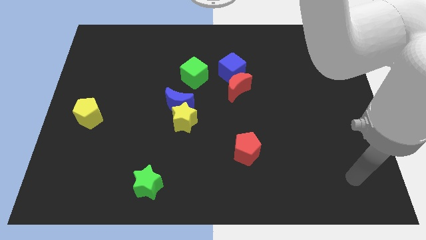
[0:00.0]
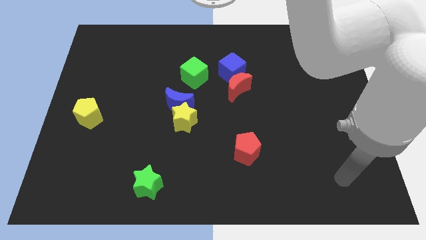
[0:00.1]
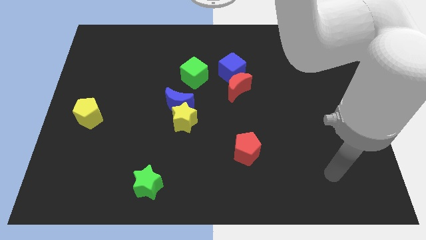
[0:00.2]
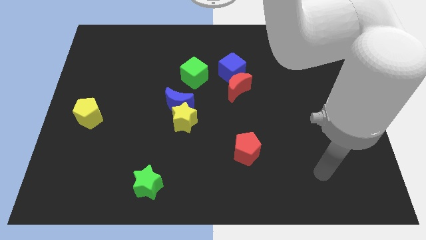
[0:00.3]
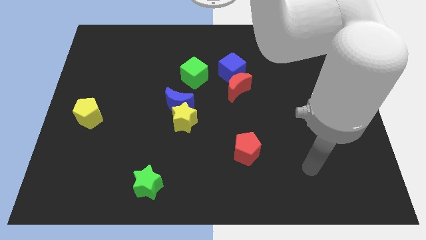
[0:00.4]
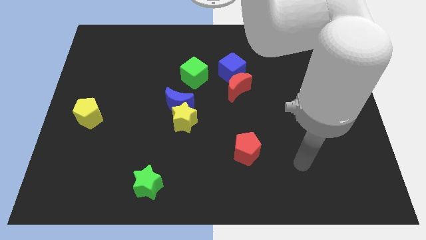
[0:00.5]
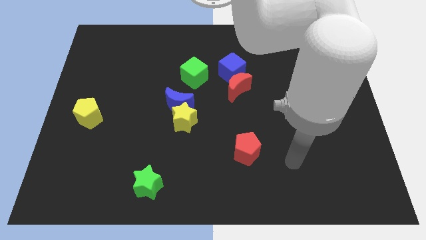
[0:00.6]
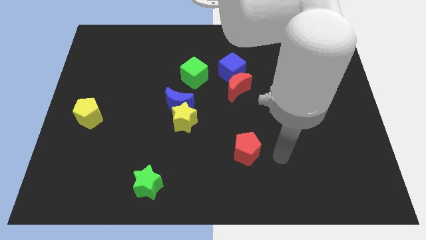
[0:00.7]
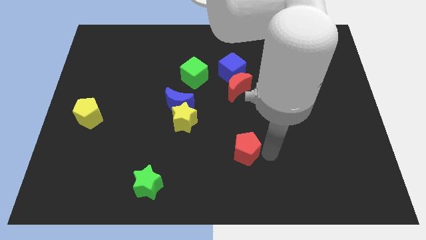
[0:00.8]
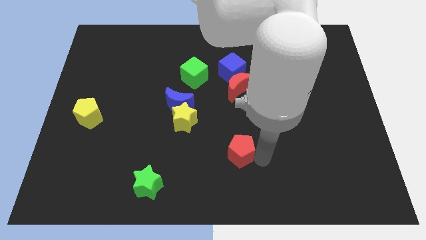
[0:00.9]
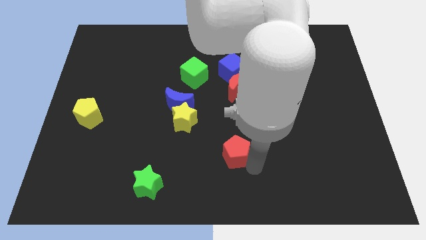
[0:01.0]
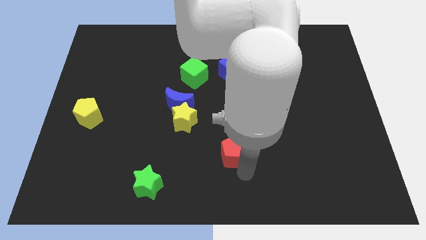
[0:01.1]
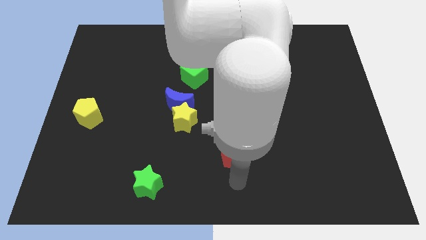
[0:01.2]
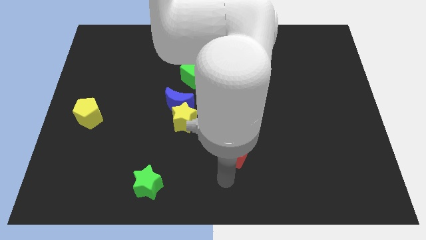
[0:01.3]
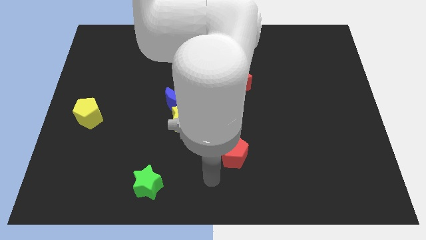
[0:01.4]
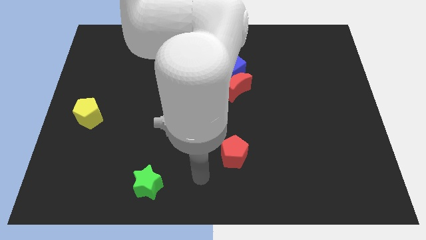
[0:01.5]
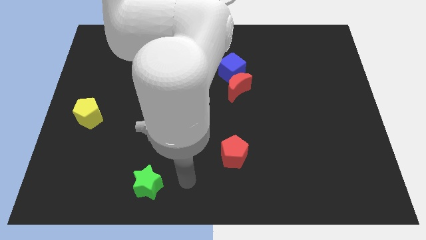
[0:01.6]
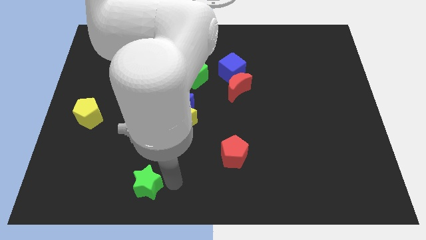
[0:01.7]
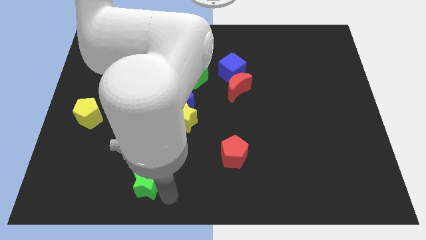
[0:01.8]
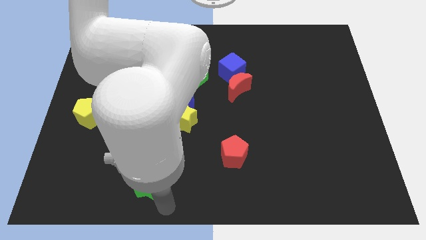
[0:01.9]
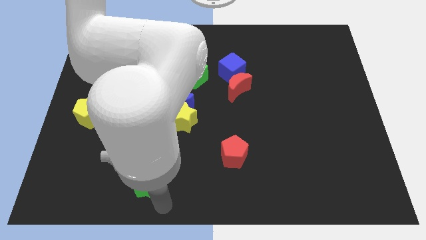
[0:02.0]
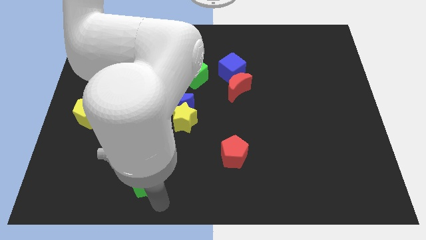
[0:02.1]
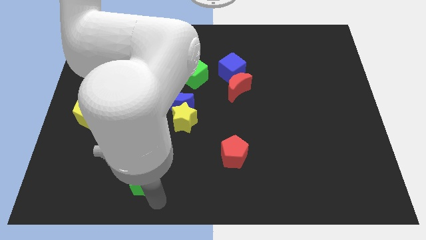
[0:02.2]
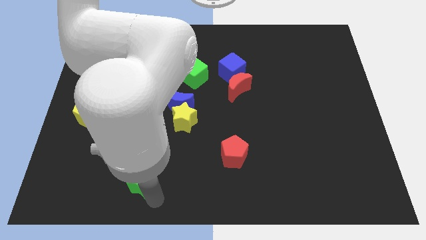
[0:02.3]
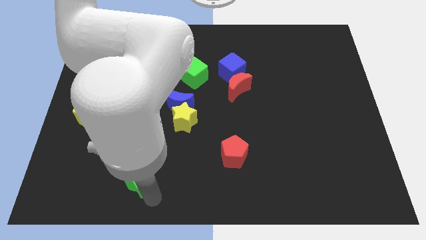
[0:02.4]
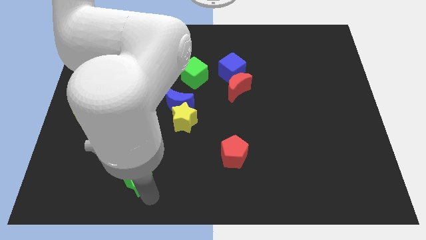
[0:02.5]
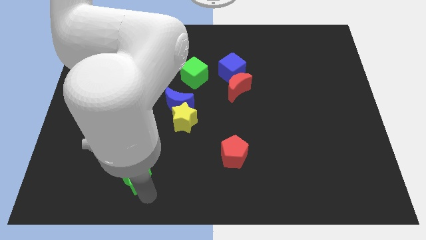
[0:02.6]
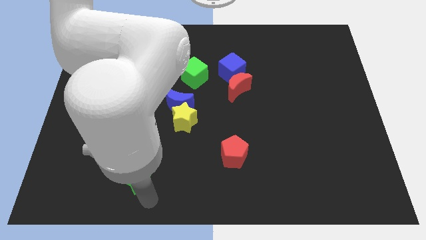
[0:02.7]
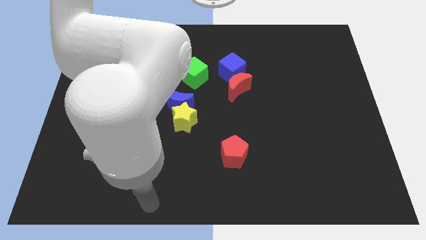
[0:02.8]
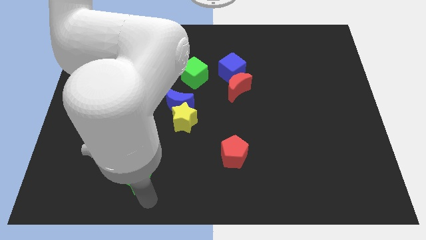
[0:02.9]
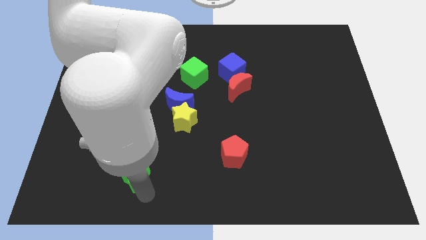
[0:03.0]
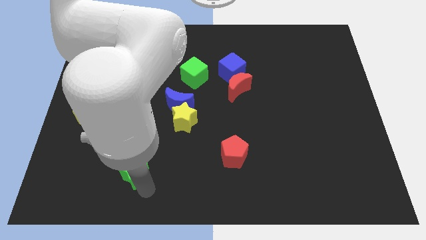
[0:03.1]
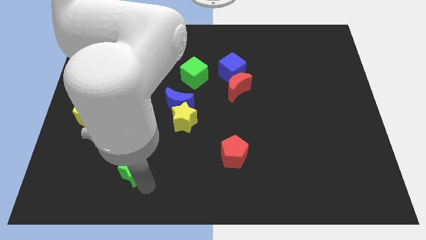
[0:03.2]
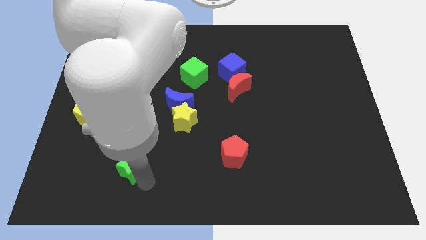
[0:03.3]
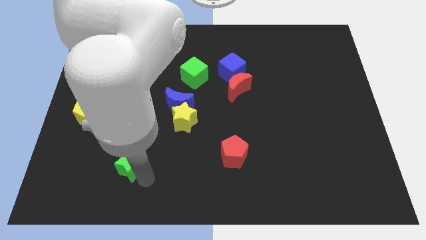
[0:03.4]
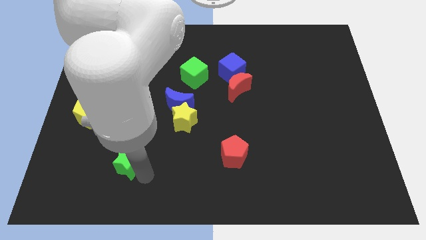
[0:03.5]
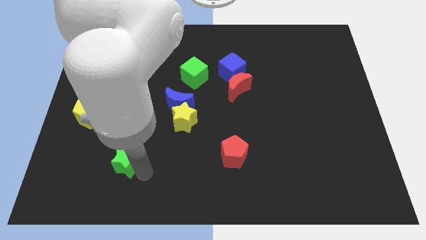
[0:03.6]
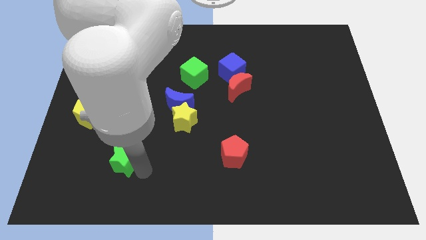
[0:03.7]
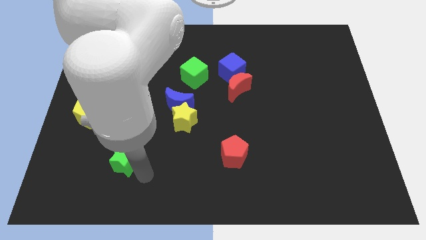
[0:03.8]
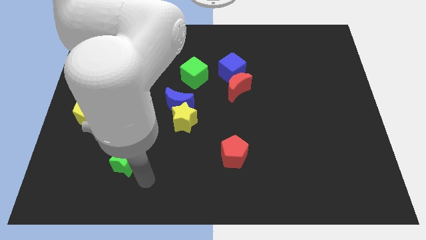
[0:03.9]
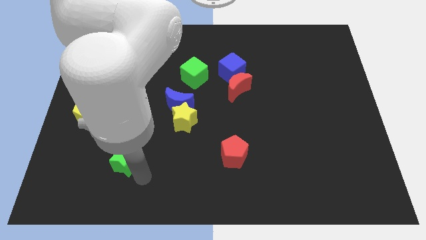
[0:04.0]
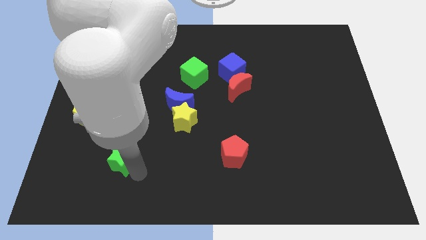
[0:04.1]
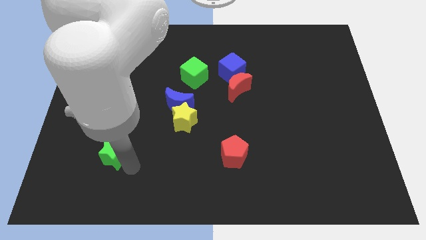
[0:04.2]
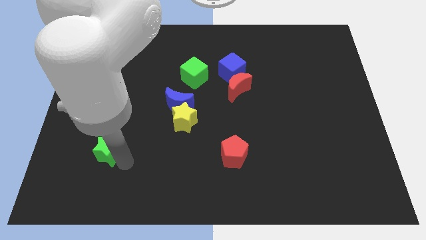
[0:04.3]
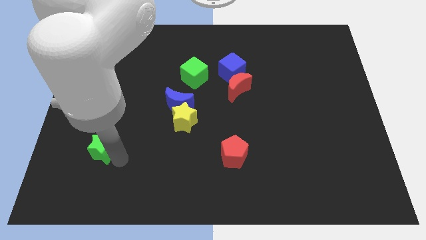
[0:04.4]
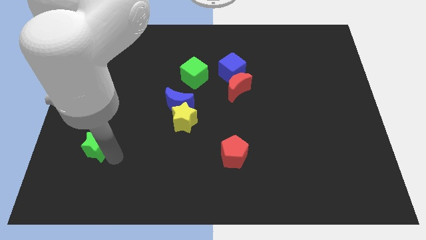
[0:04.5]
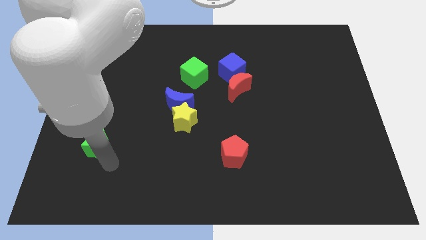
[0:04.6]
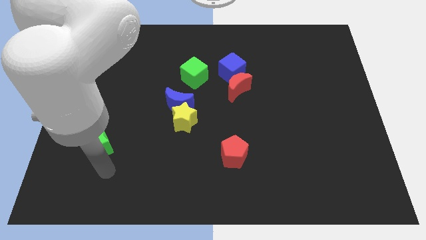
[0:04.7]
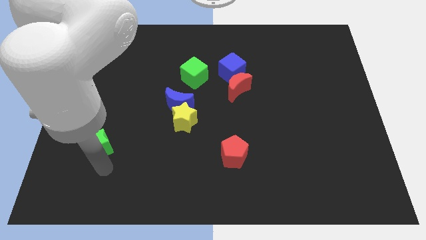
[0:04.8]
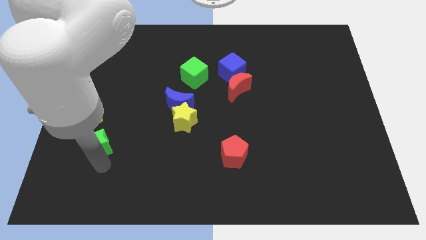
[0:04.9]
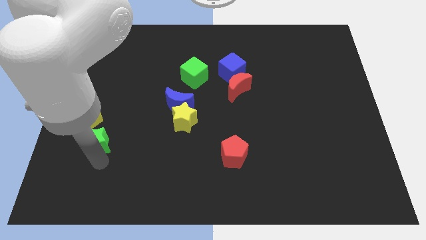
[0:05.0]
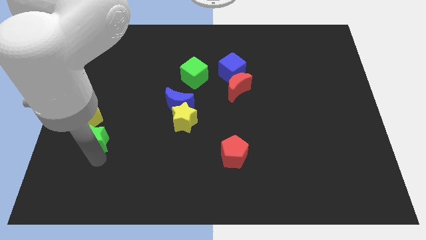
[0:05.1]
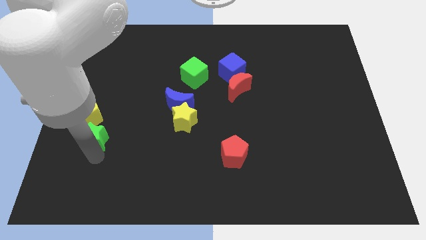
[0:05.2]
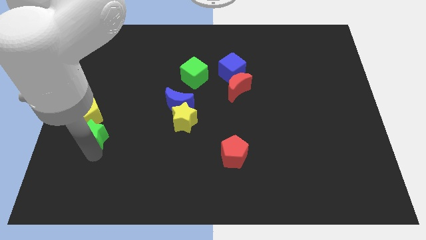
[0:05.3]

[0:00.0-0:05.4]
put the green star towards the yellow pentagon

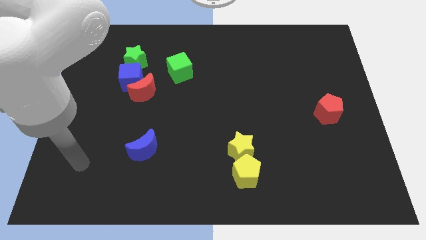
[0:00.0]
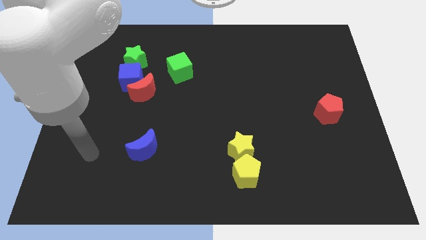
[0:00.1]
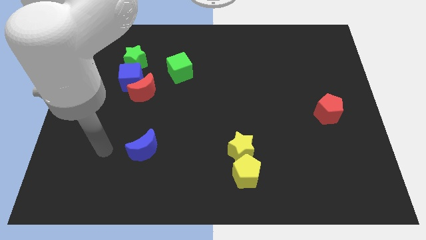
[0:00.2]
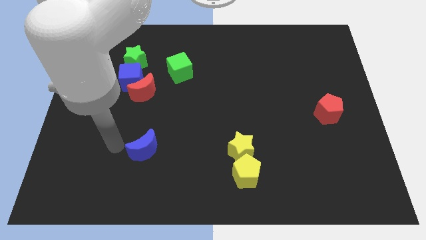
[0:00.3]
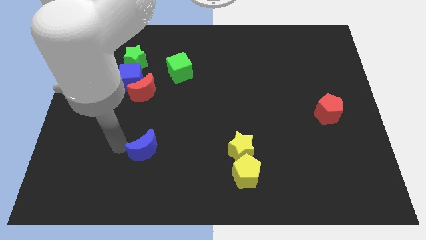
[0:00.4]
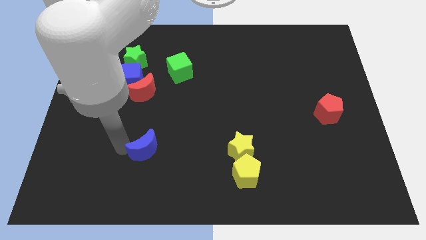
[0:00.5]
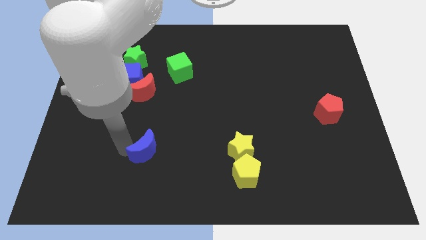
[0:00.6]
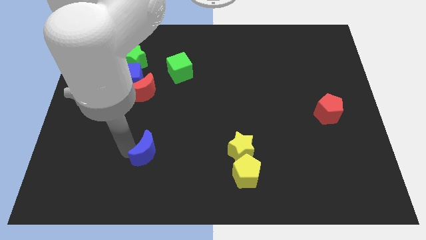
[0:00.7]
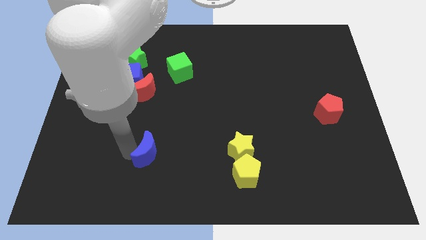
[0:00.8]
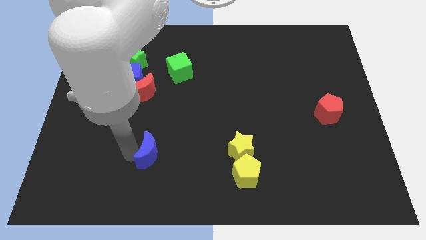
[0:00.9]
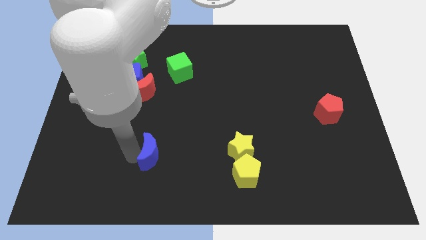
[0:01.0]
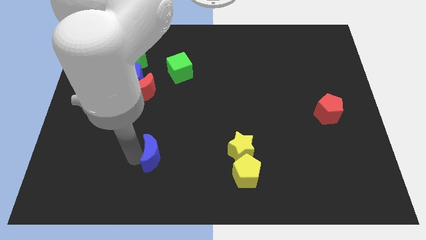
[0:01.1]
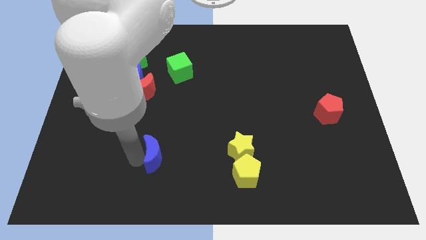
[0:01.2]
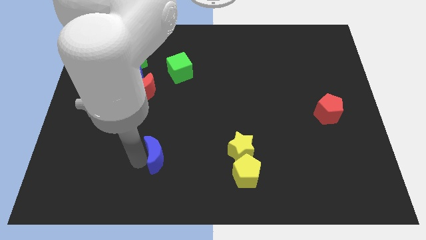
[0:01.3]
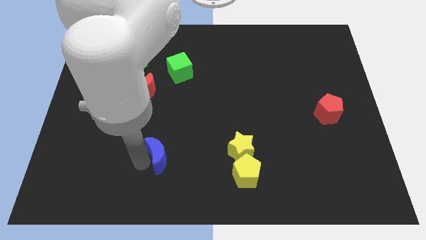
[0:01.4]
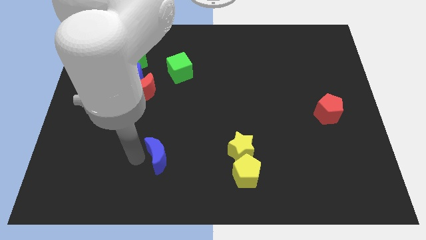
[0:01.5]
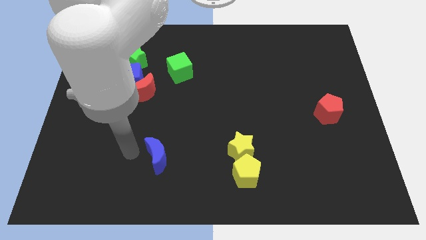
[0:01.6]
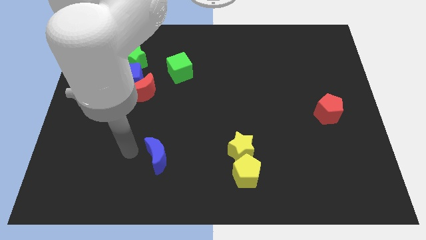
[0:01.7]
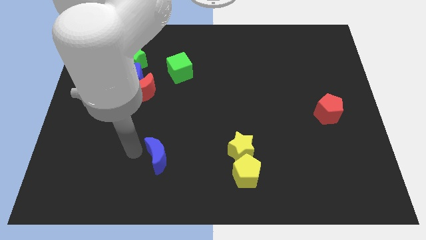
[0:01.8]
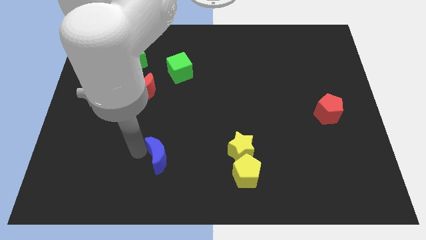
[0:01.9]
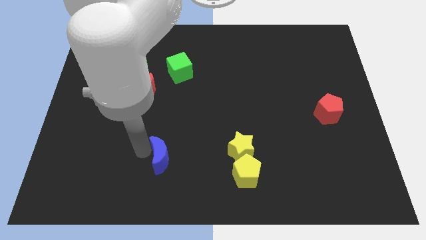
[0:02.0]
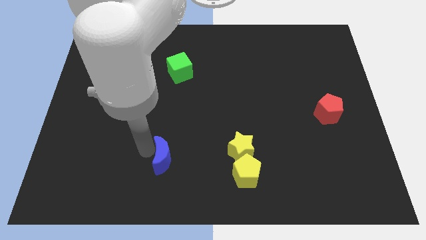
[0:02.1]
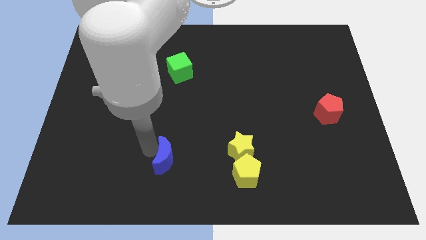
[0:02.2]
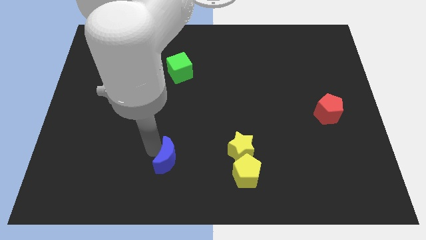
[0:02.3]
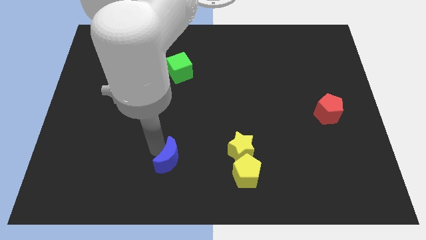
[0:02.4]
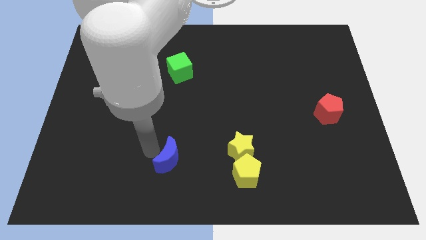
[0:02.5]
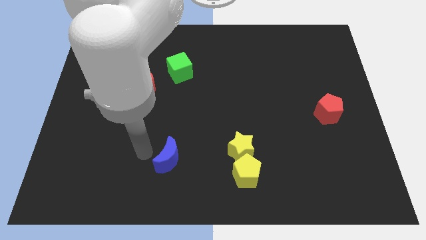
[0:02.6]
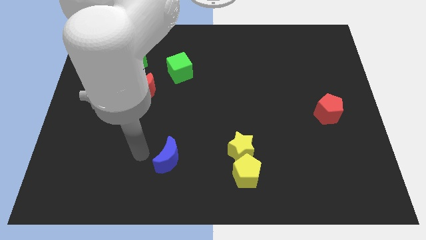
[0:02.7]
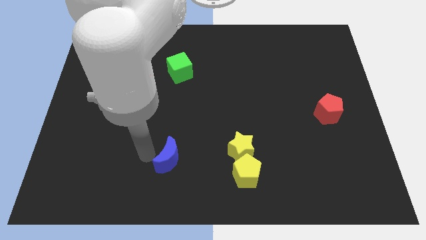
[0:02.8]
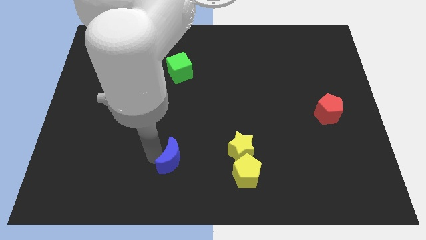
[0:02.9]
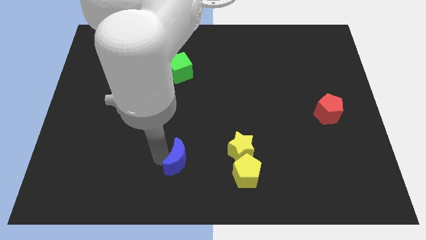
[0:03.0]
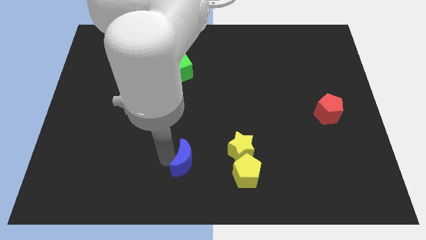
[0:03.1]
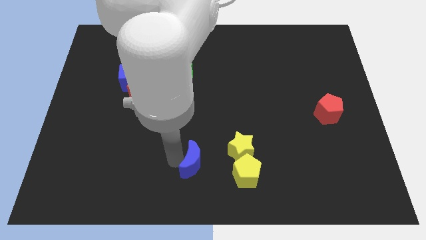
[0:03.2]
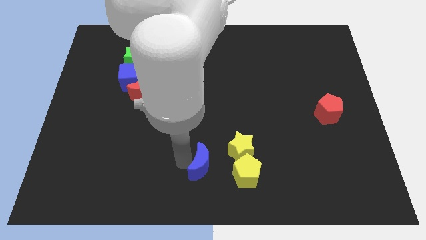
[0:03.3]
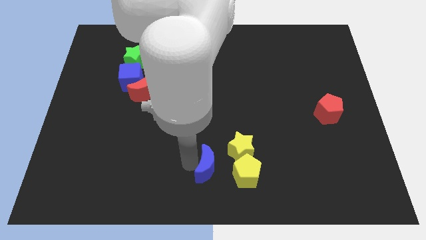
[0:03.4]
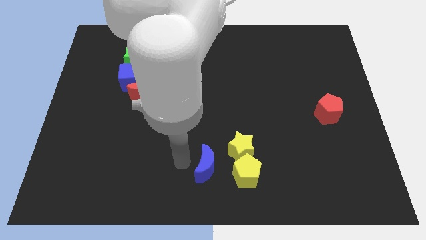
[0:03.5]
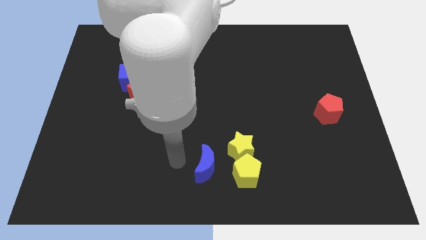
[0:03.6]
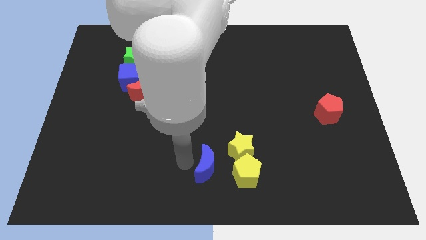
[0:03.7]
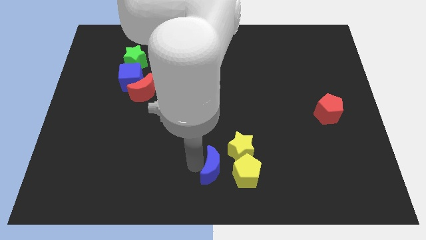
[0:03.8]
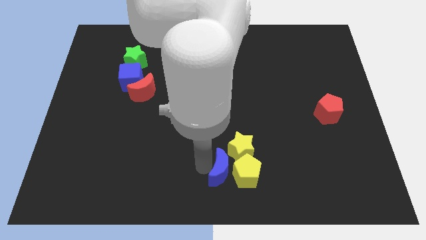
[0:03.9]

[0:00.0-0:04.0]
put the blue moon next to the yellow pentagon
